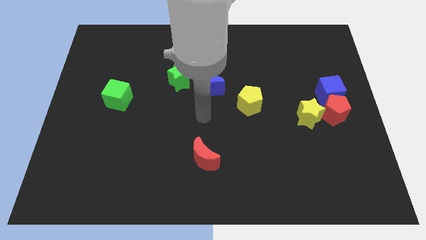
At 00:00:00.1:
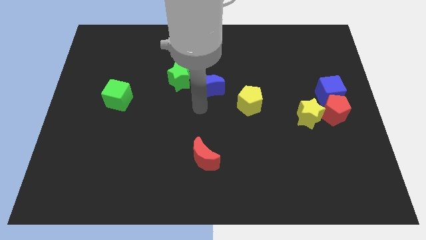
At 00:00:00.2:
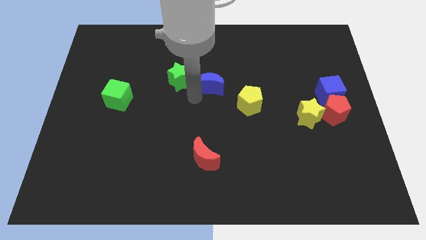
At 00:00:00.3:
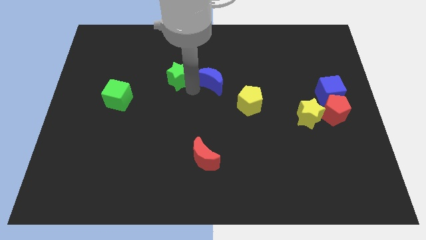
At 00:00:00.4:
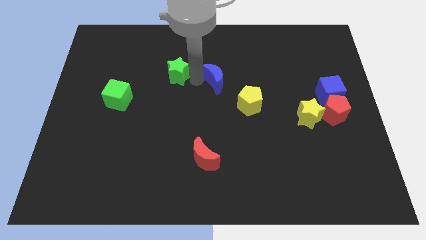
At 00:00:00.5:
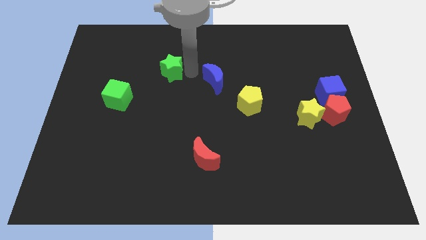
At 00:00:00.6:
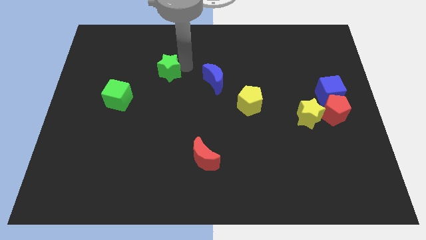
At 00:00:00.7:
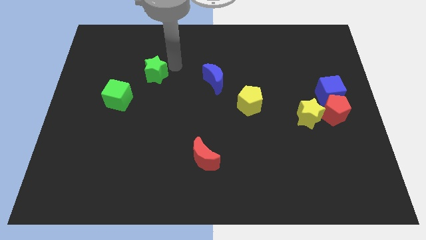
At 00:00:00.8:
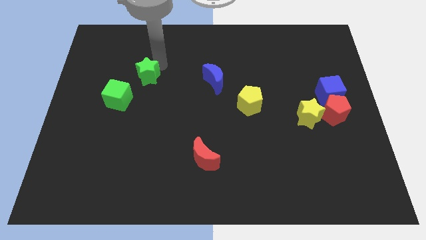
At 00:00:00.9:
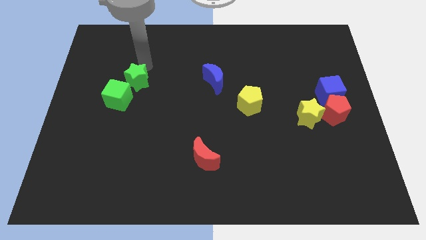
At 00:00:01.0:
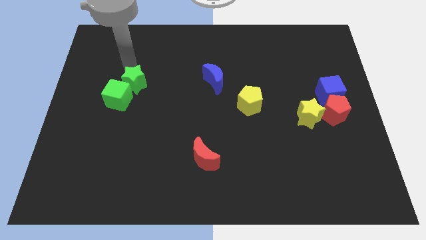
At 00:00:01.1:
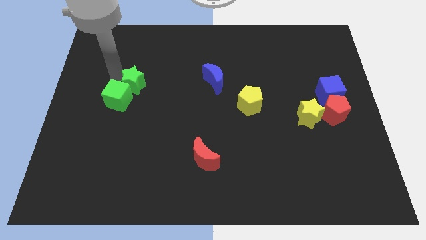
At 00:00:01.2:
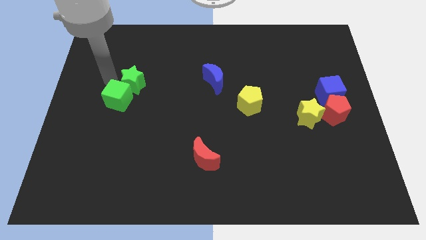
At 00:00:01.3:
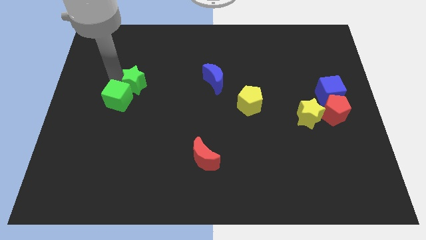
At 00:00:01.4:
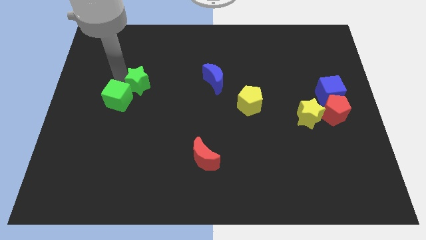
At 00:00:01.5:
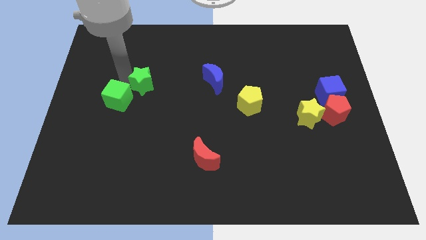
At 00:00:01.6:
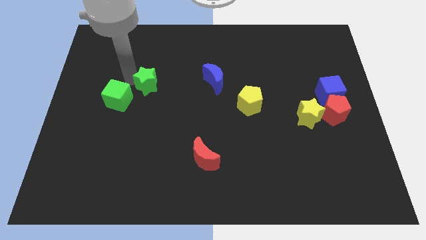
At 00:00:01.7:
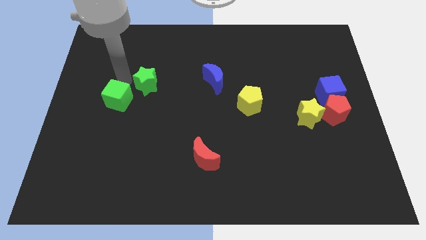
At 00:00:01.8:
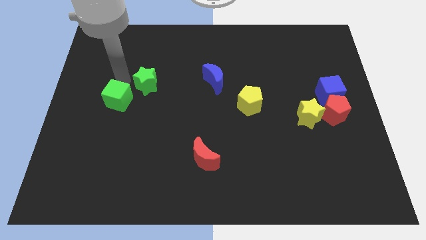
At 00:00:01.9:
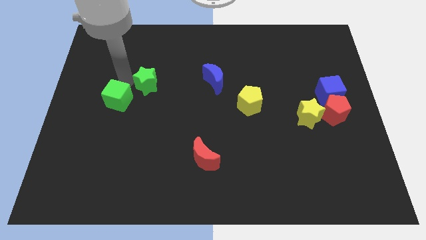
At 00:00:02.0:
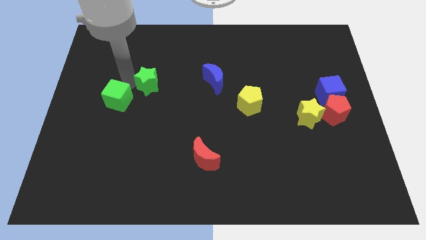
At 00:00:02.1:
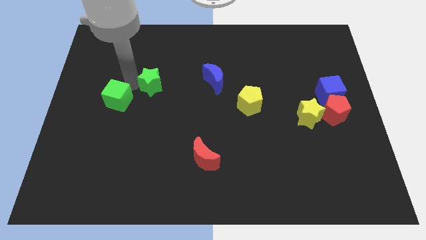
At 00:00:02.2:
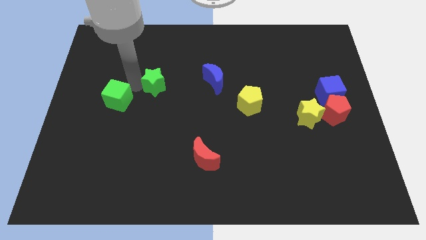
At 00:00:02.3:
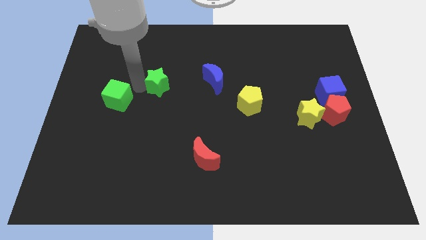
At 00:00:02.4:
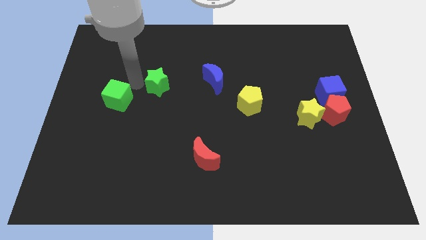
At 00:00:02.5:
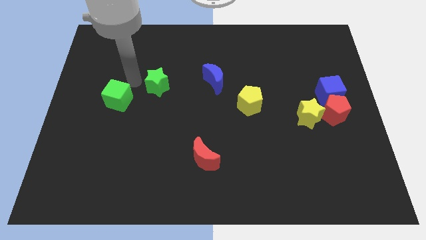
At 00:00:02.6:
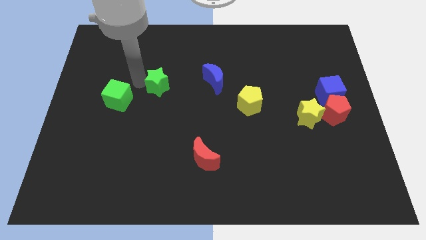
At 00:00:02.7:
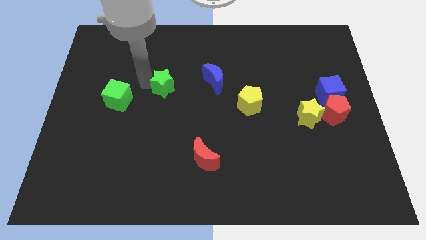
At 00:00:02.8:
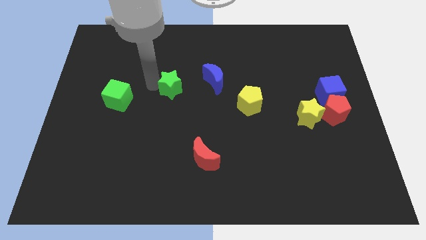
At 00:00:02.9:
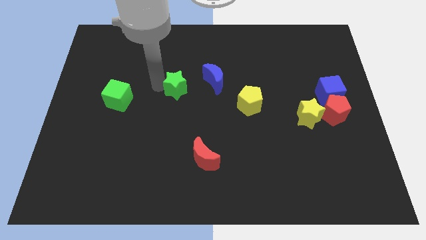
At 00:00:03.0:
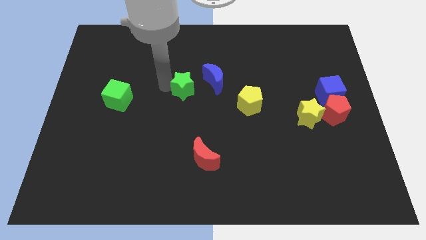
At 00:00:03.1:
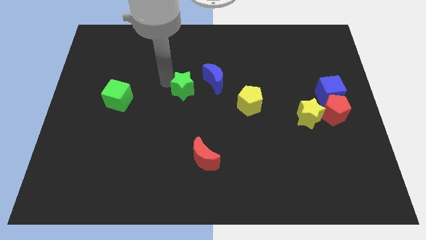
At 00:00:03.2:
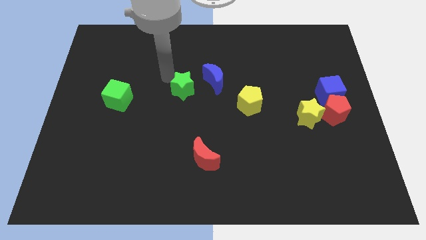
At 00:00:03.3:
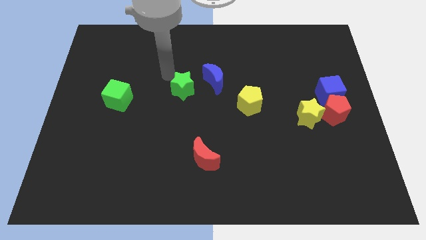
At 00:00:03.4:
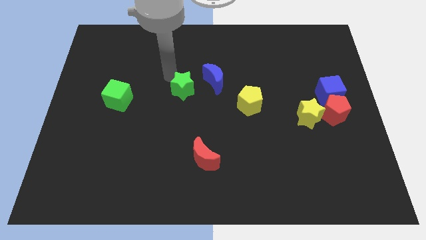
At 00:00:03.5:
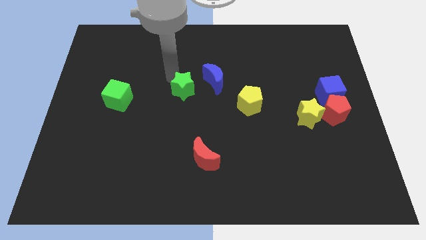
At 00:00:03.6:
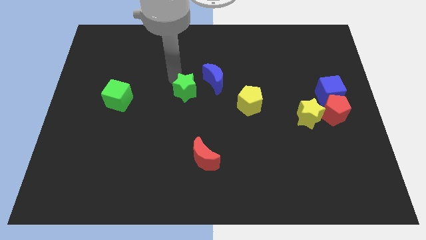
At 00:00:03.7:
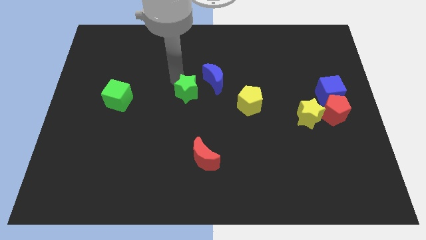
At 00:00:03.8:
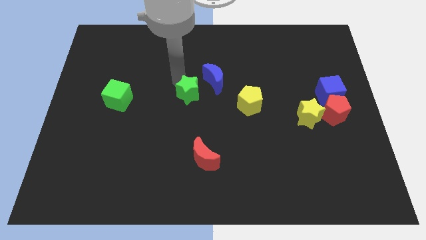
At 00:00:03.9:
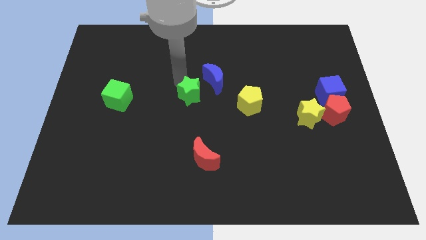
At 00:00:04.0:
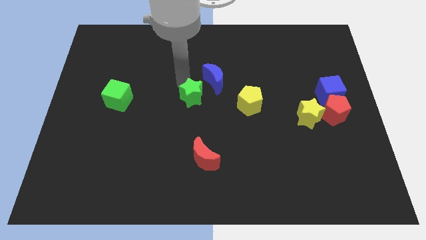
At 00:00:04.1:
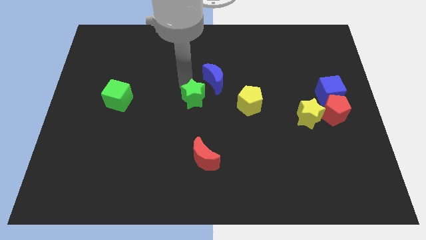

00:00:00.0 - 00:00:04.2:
slide the green star down and then to the right a little bit

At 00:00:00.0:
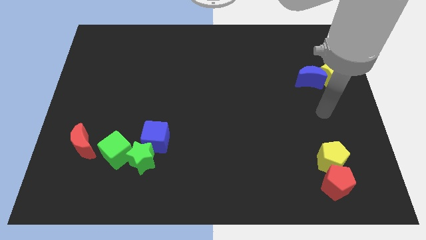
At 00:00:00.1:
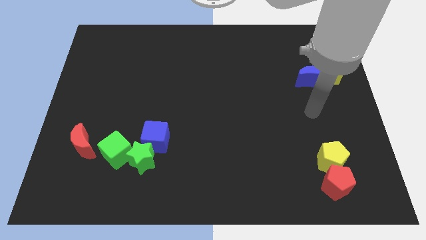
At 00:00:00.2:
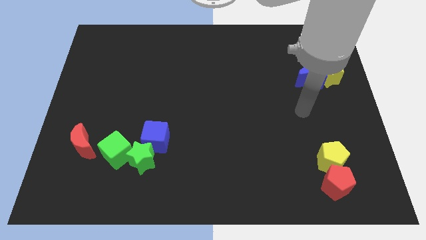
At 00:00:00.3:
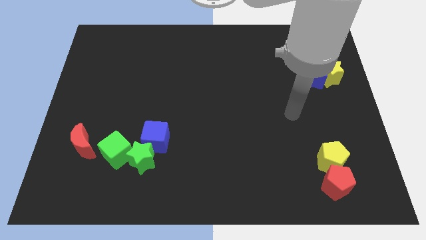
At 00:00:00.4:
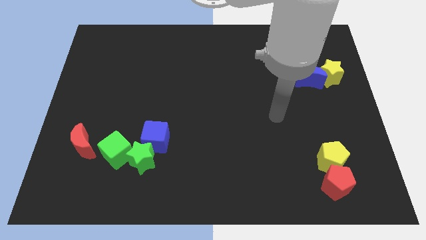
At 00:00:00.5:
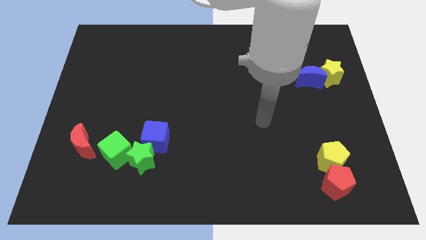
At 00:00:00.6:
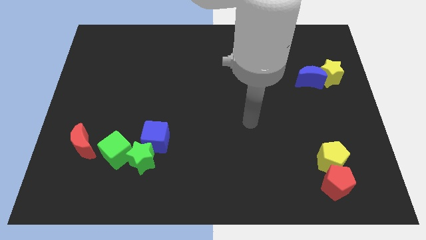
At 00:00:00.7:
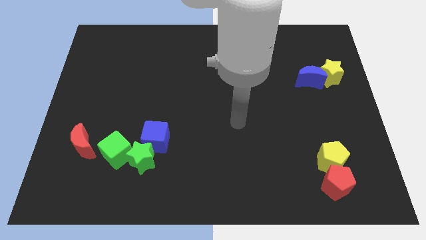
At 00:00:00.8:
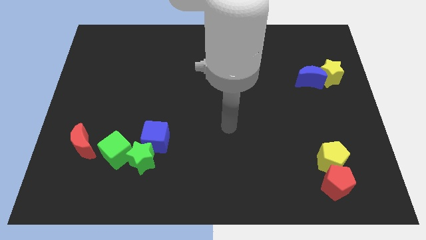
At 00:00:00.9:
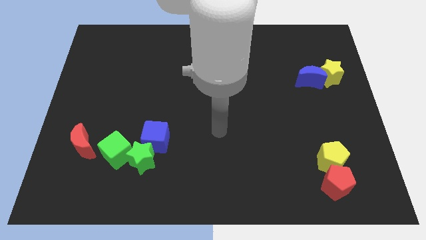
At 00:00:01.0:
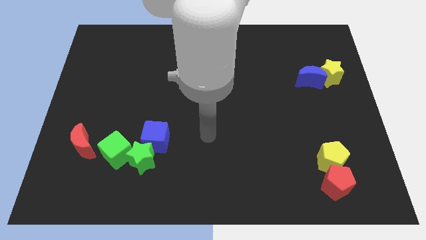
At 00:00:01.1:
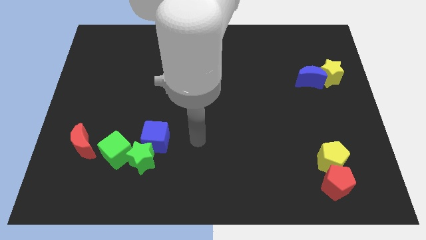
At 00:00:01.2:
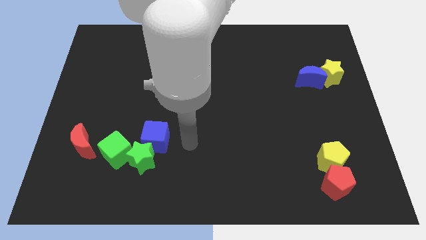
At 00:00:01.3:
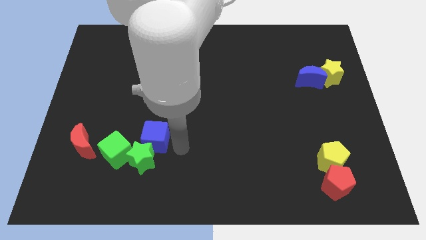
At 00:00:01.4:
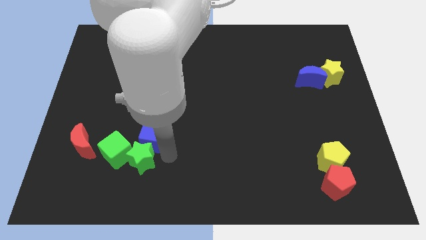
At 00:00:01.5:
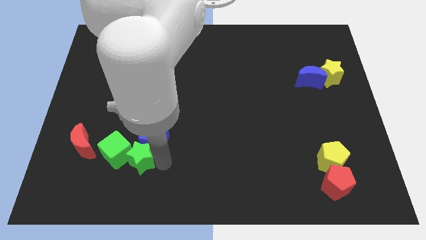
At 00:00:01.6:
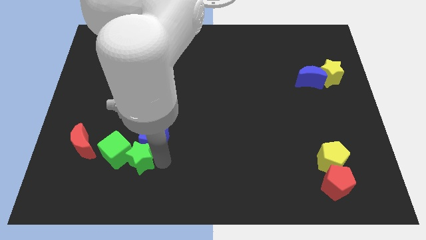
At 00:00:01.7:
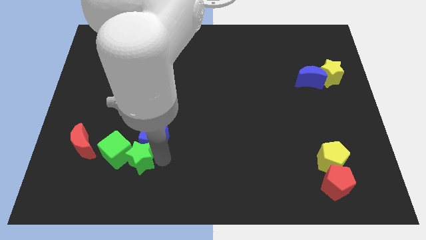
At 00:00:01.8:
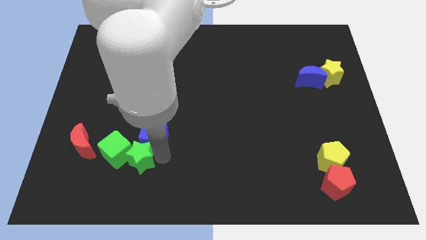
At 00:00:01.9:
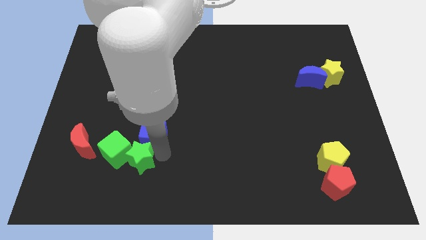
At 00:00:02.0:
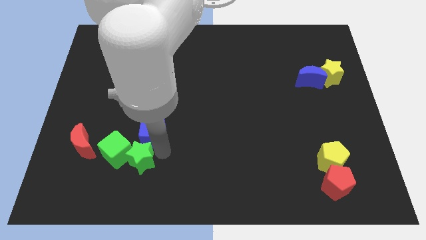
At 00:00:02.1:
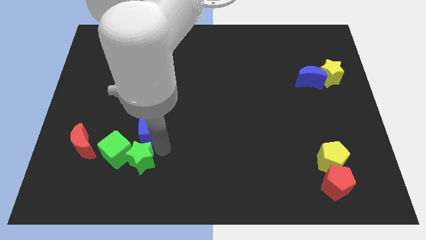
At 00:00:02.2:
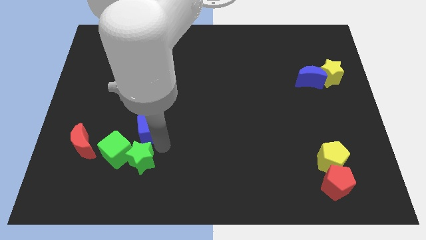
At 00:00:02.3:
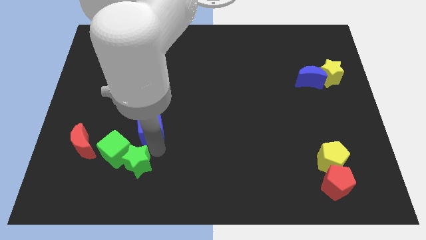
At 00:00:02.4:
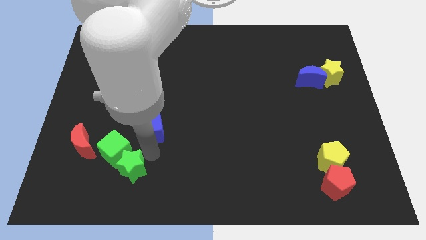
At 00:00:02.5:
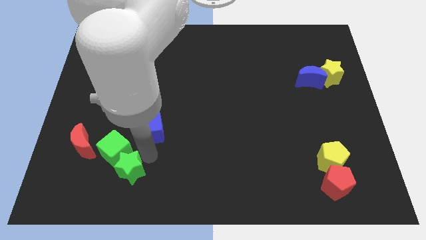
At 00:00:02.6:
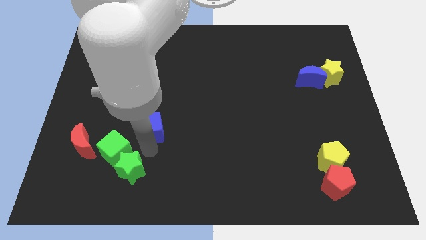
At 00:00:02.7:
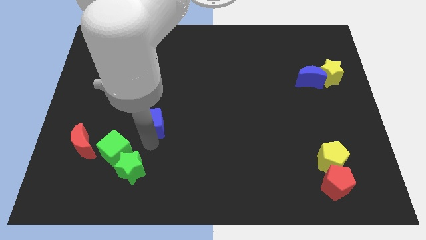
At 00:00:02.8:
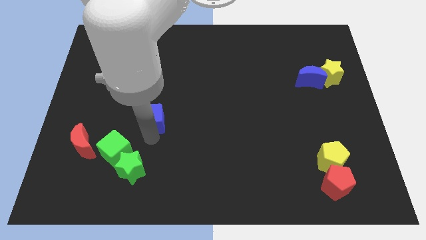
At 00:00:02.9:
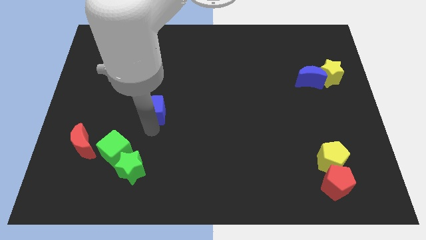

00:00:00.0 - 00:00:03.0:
slide the blue cube a little bit upwards

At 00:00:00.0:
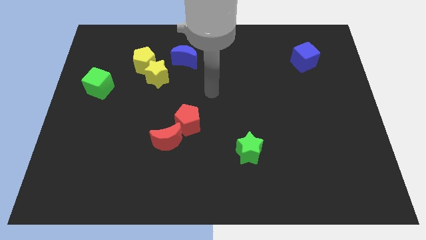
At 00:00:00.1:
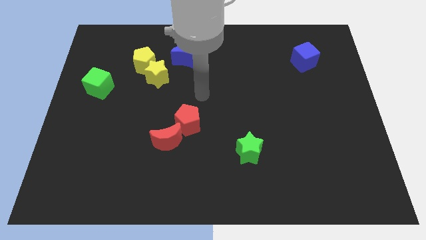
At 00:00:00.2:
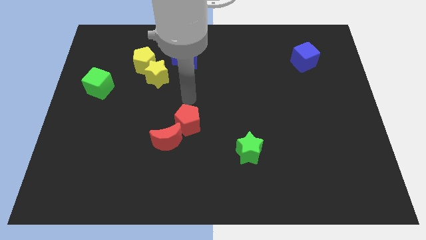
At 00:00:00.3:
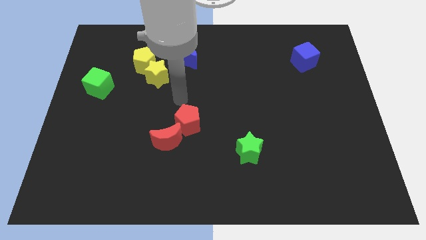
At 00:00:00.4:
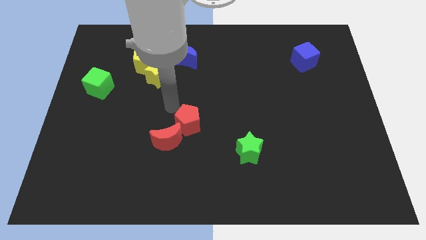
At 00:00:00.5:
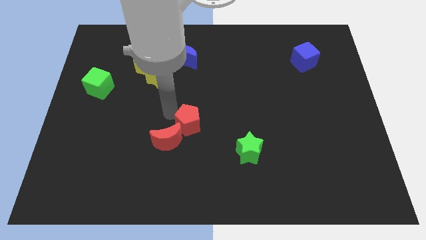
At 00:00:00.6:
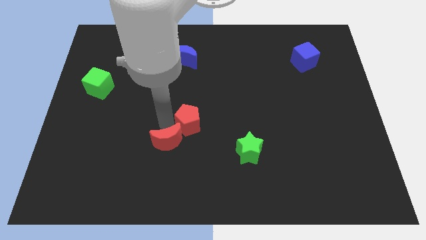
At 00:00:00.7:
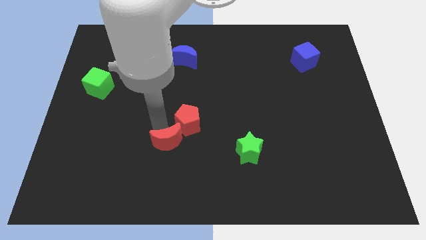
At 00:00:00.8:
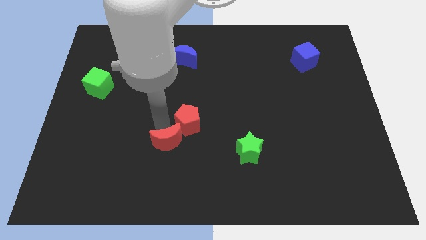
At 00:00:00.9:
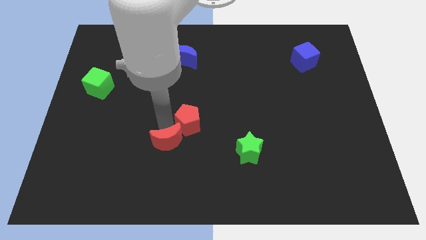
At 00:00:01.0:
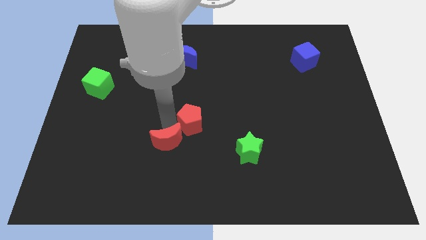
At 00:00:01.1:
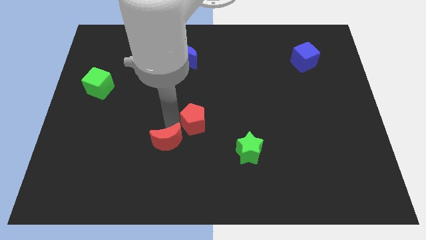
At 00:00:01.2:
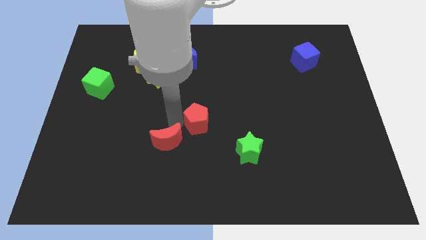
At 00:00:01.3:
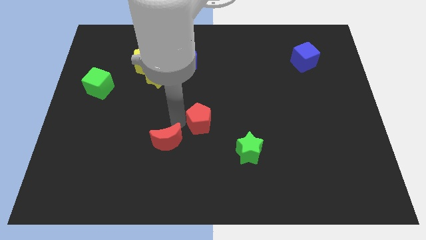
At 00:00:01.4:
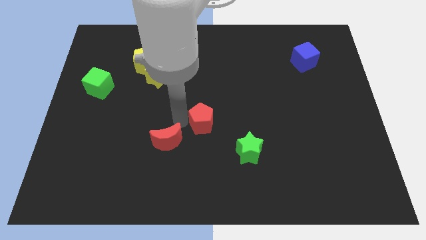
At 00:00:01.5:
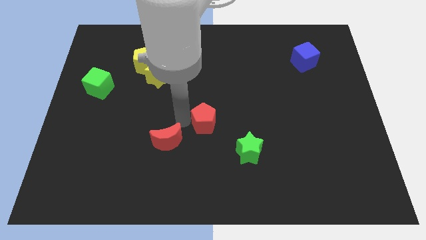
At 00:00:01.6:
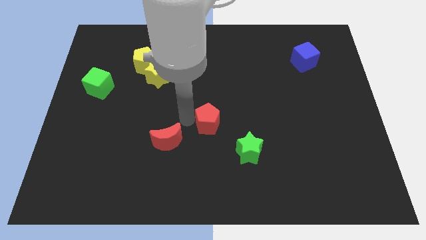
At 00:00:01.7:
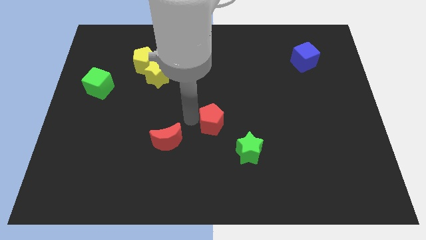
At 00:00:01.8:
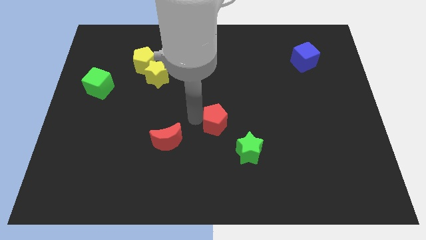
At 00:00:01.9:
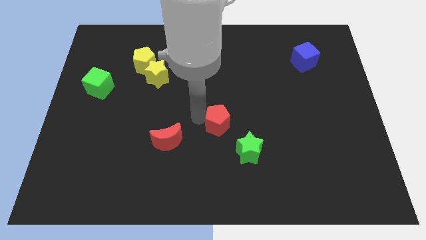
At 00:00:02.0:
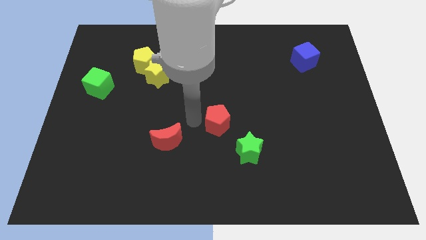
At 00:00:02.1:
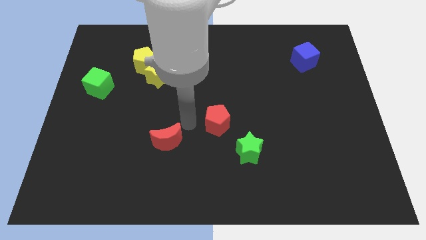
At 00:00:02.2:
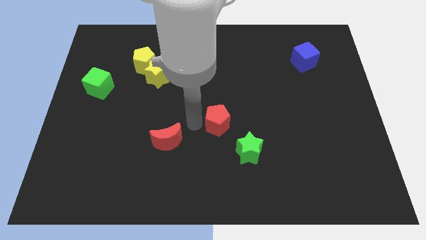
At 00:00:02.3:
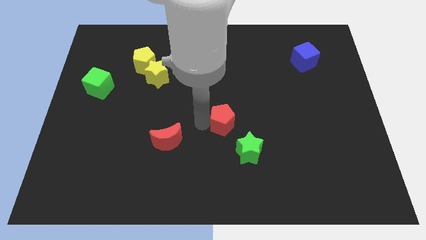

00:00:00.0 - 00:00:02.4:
slightly slide the red pentagon to the right
